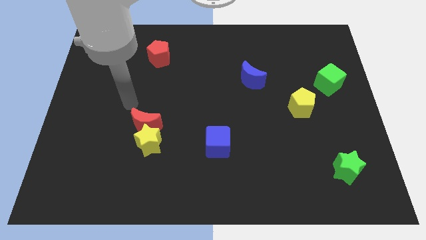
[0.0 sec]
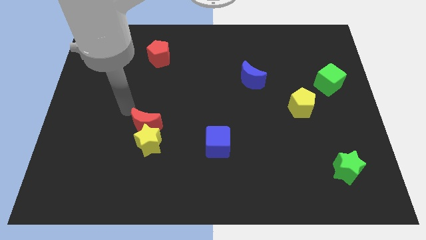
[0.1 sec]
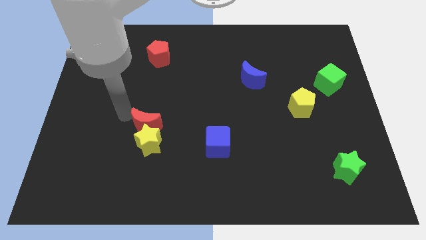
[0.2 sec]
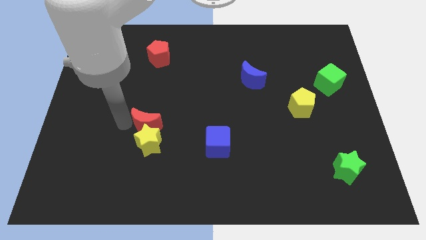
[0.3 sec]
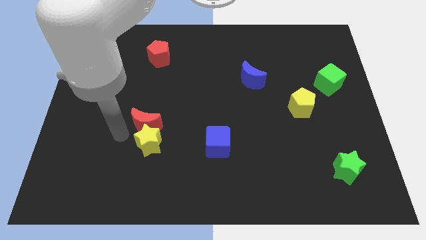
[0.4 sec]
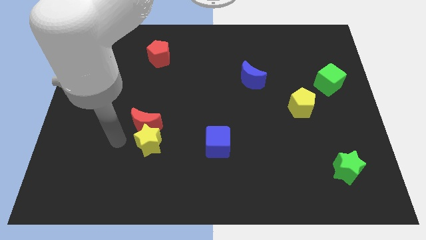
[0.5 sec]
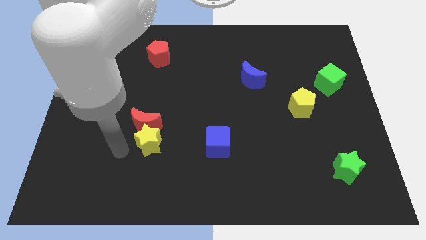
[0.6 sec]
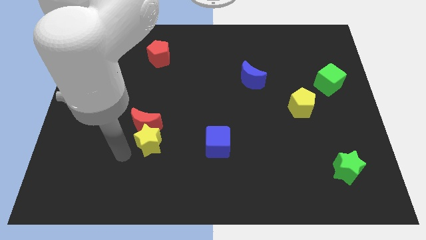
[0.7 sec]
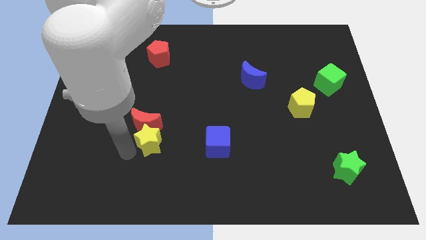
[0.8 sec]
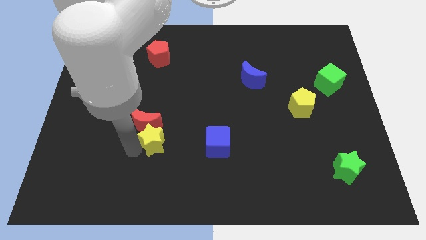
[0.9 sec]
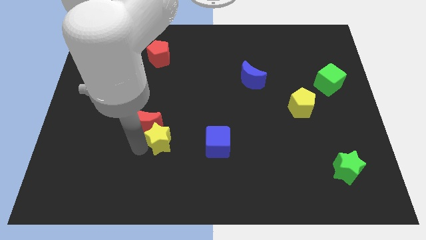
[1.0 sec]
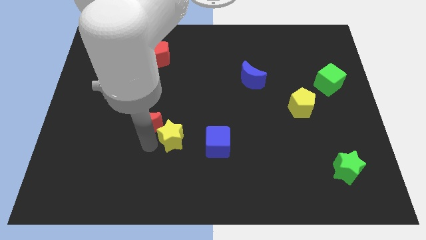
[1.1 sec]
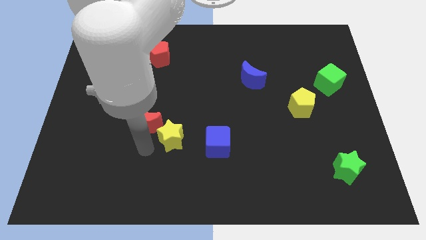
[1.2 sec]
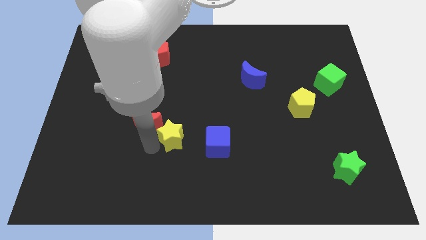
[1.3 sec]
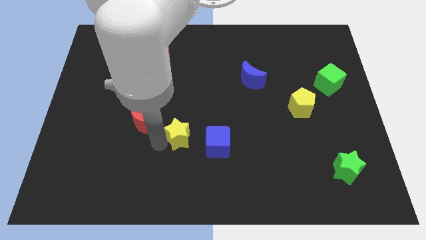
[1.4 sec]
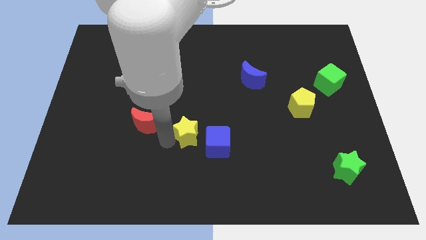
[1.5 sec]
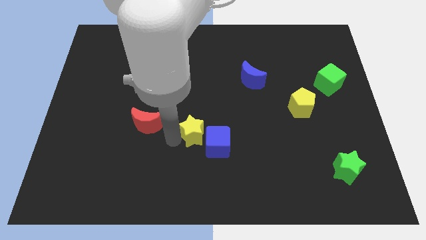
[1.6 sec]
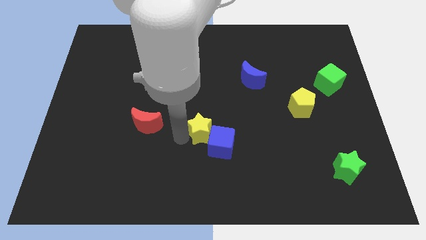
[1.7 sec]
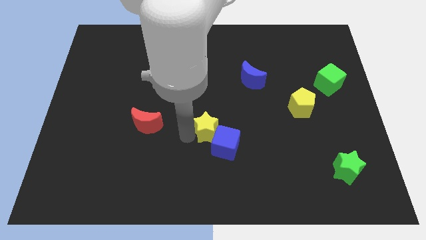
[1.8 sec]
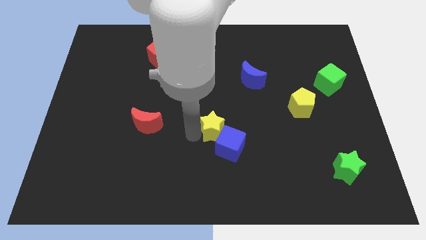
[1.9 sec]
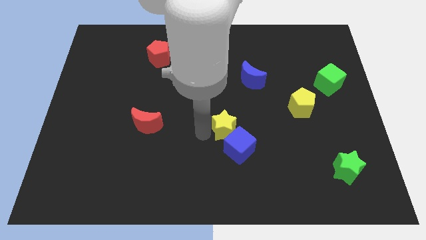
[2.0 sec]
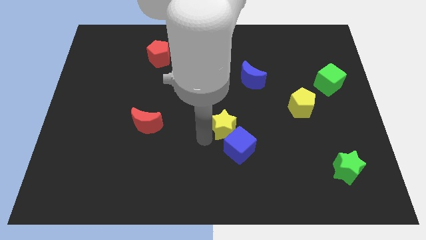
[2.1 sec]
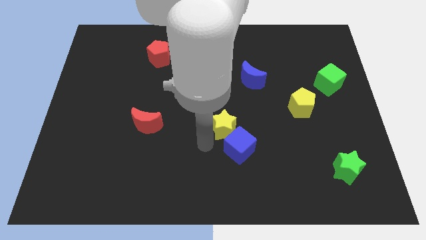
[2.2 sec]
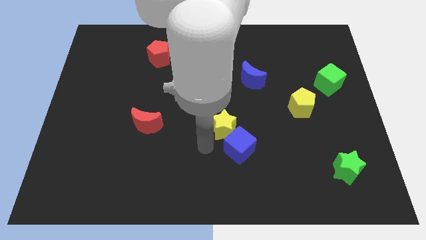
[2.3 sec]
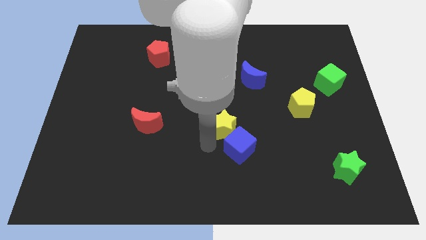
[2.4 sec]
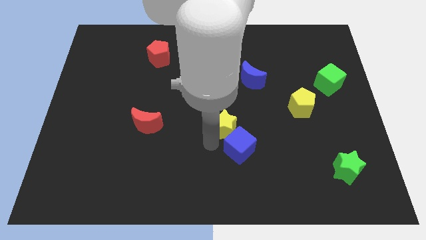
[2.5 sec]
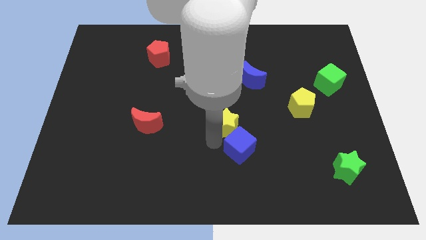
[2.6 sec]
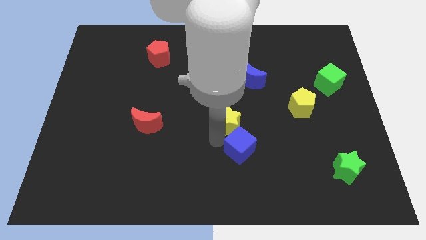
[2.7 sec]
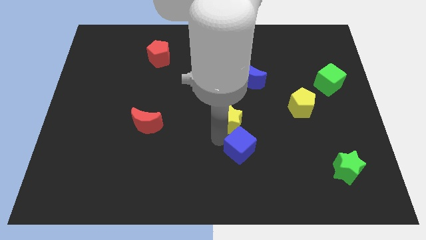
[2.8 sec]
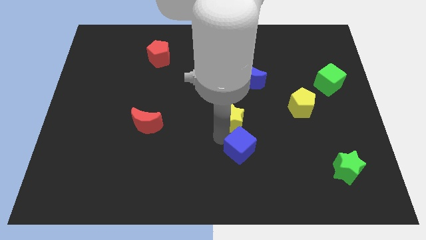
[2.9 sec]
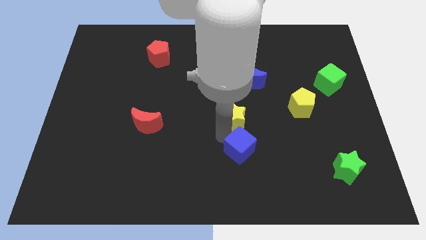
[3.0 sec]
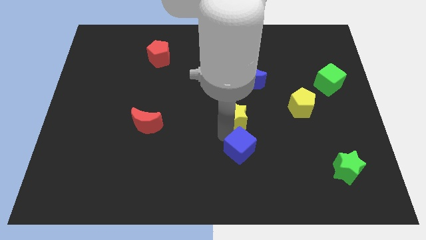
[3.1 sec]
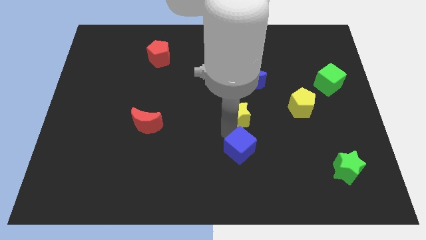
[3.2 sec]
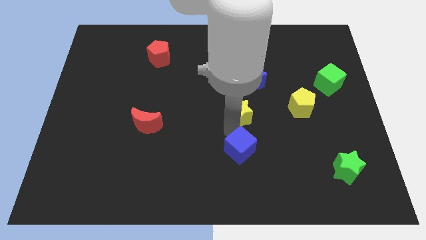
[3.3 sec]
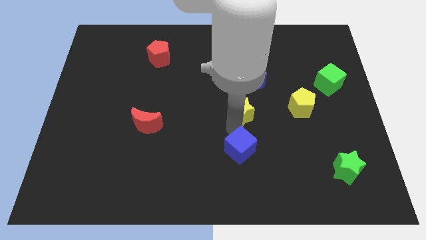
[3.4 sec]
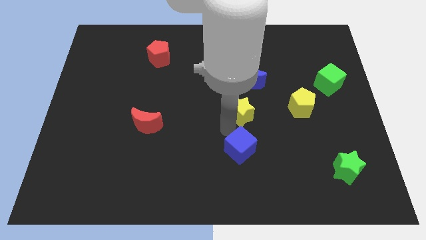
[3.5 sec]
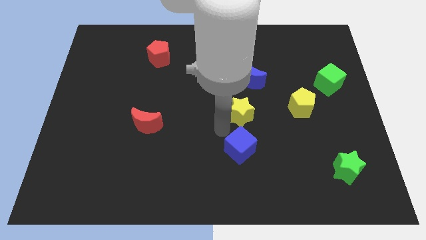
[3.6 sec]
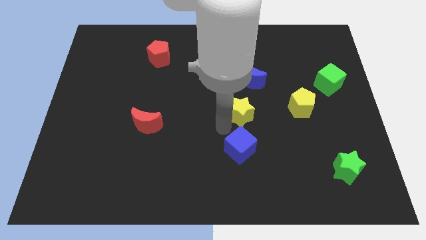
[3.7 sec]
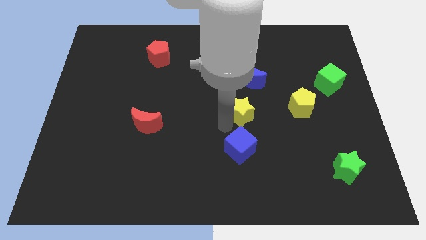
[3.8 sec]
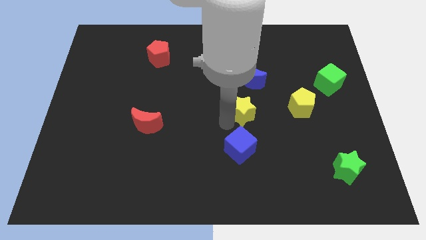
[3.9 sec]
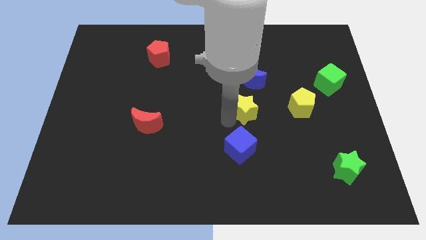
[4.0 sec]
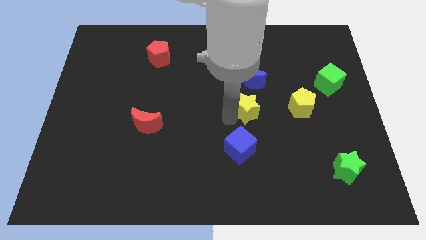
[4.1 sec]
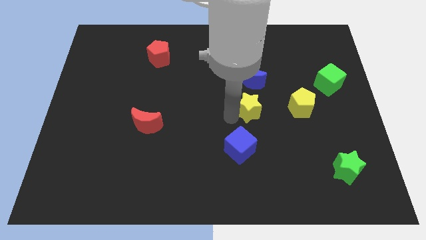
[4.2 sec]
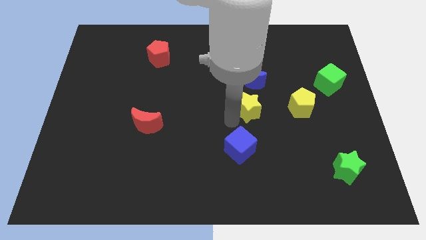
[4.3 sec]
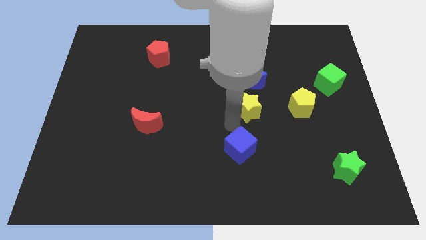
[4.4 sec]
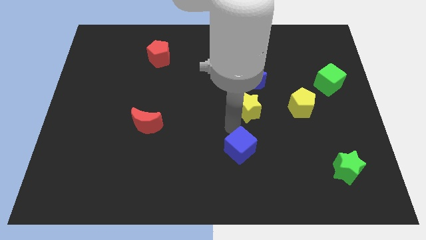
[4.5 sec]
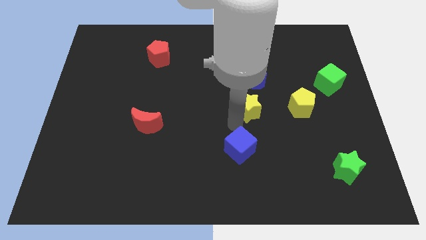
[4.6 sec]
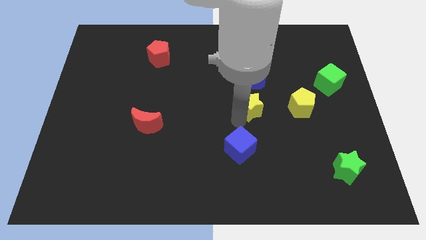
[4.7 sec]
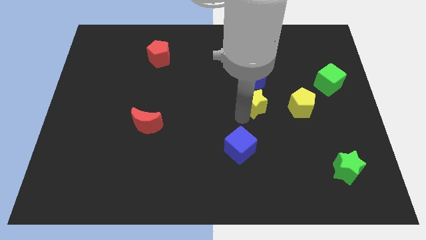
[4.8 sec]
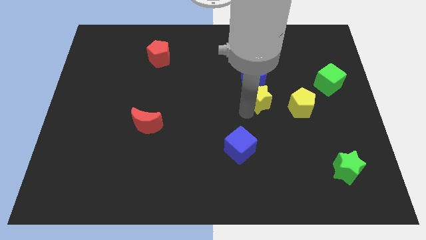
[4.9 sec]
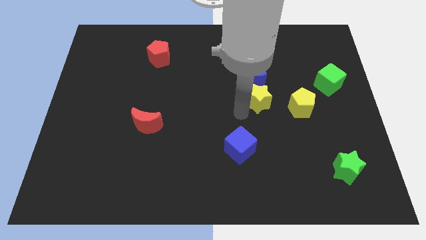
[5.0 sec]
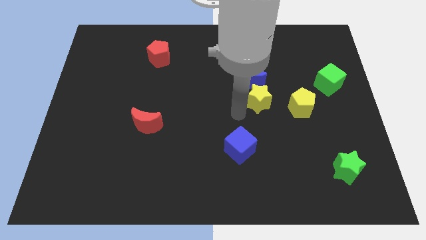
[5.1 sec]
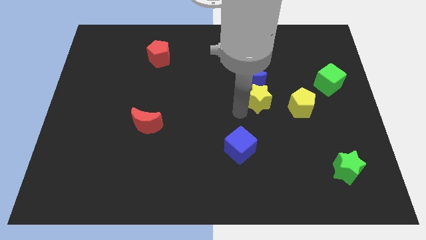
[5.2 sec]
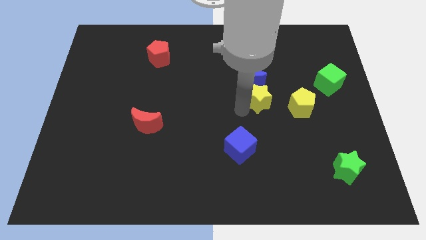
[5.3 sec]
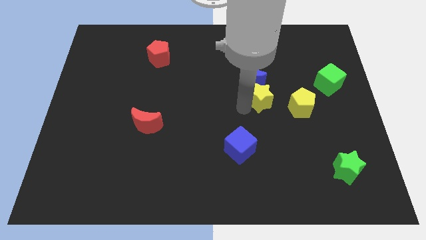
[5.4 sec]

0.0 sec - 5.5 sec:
push the yellow star diagonally up and to the left of the yellow pentagon
